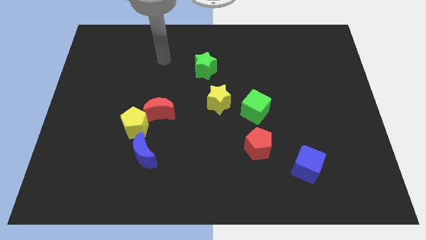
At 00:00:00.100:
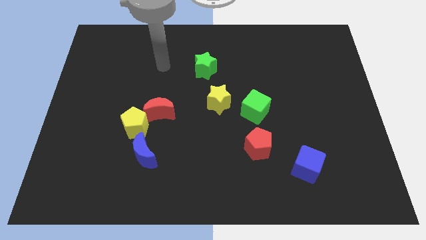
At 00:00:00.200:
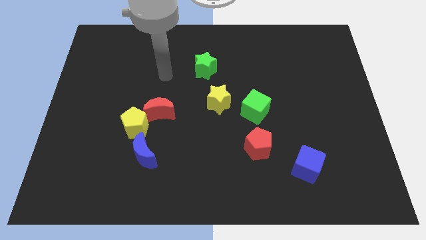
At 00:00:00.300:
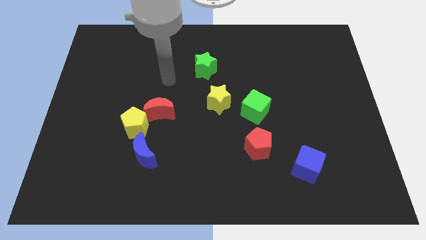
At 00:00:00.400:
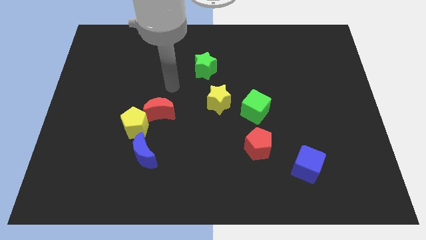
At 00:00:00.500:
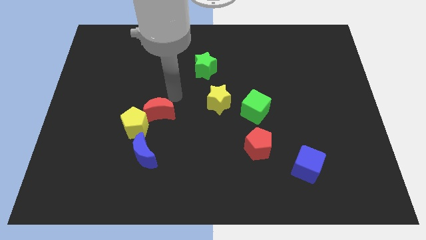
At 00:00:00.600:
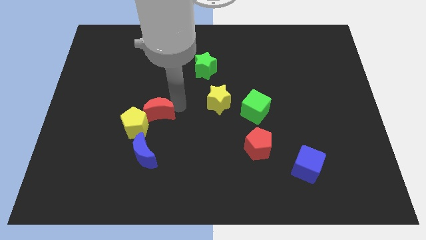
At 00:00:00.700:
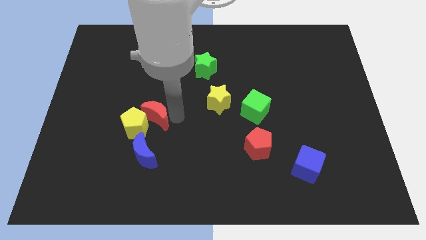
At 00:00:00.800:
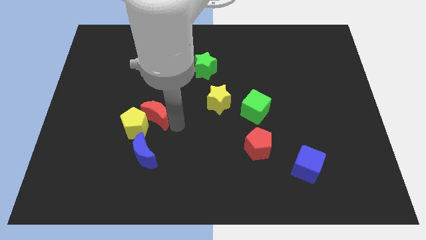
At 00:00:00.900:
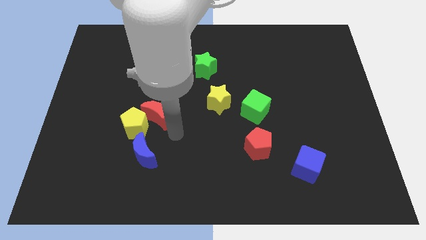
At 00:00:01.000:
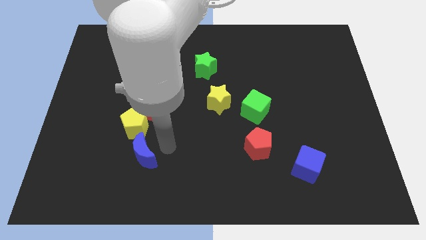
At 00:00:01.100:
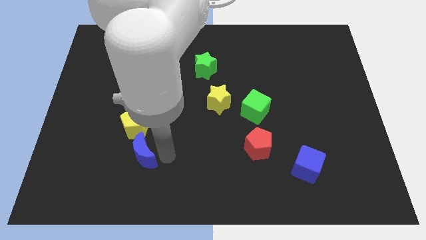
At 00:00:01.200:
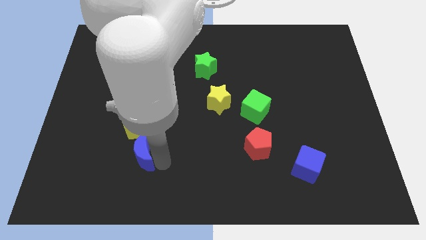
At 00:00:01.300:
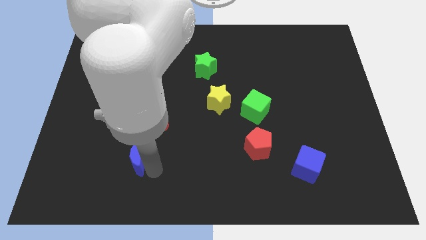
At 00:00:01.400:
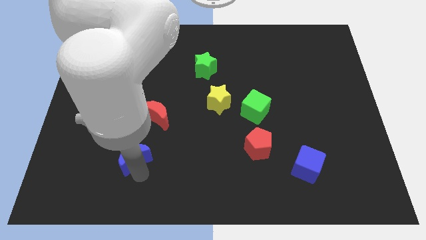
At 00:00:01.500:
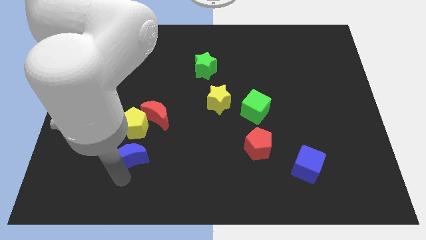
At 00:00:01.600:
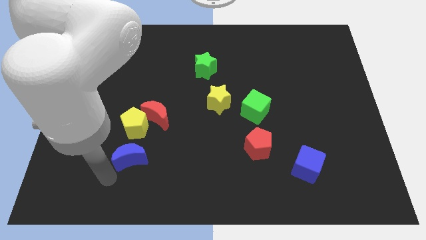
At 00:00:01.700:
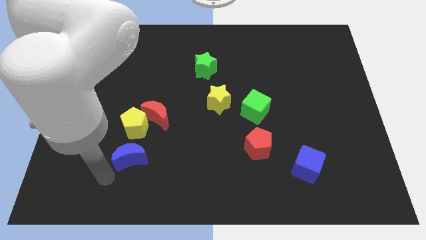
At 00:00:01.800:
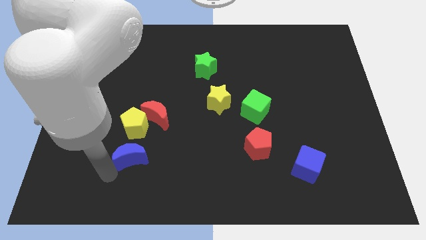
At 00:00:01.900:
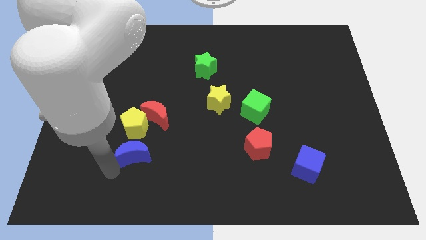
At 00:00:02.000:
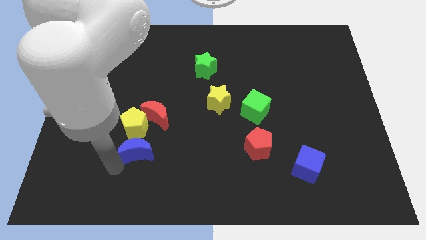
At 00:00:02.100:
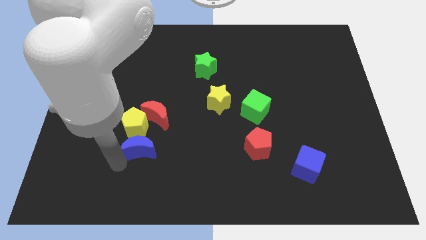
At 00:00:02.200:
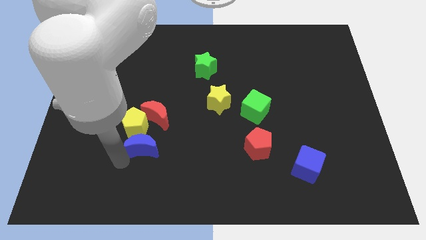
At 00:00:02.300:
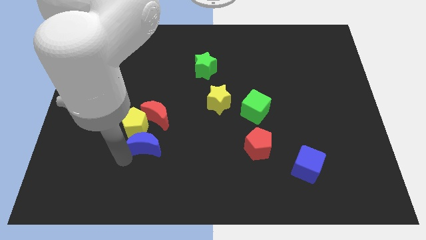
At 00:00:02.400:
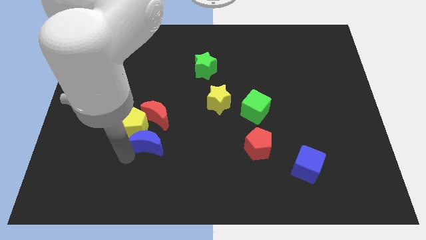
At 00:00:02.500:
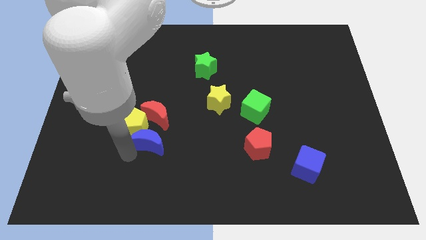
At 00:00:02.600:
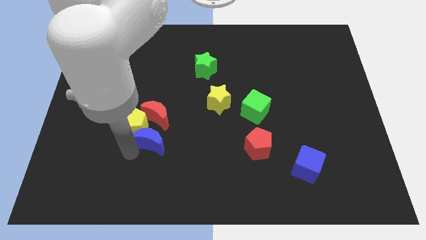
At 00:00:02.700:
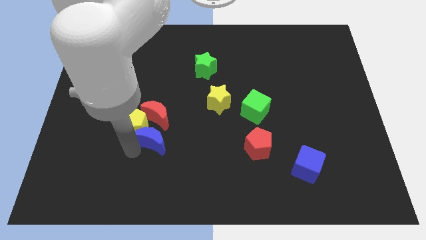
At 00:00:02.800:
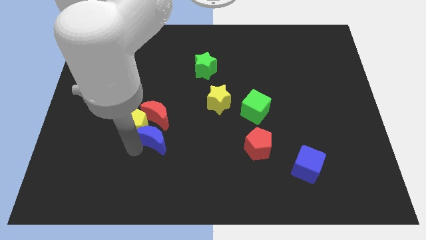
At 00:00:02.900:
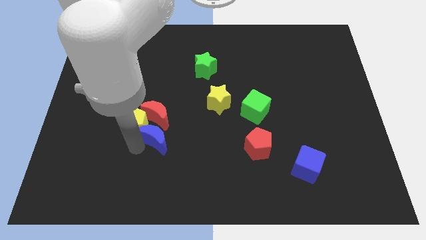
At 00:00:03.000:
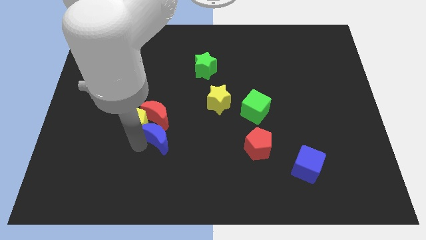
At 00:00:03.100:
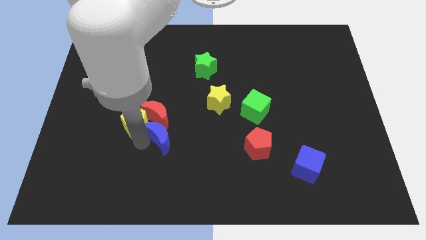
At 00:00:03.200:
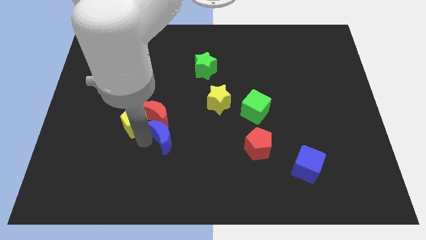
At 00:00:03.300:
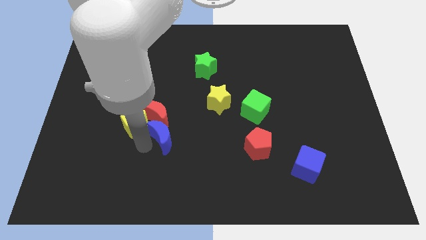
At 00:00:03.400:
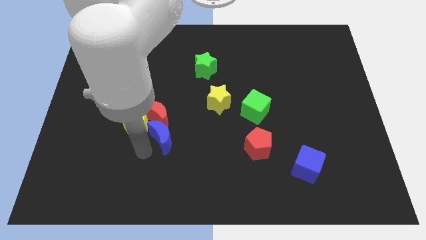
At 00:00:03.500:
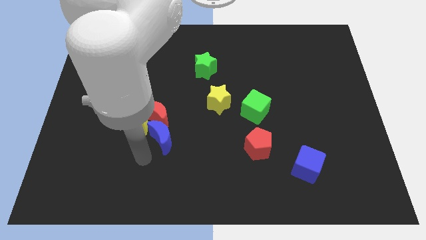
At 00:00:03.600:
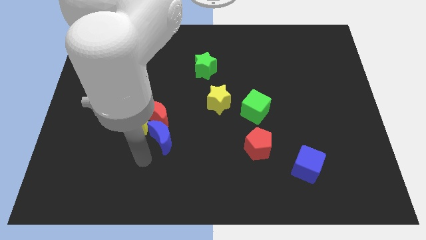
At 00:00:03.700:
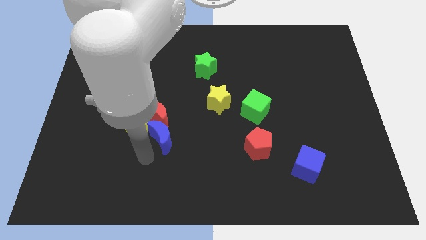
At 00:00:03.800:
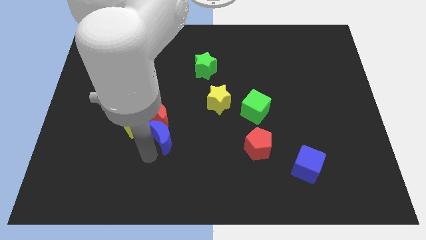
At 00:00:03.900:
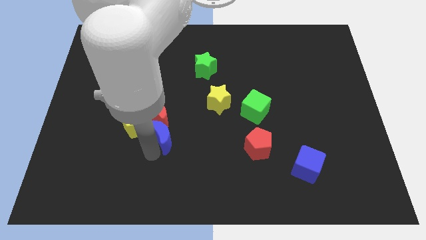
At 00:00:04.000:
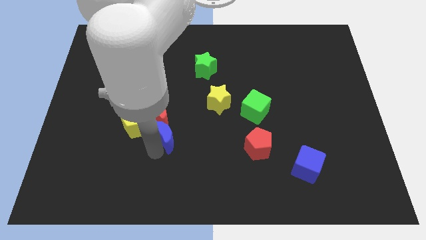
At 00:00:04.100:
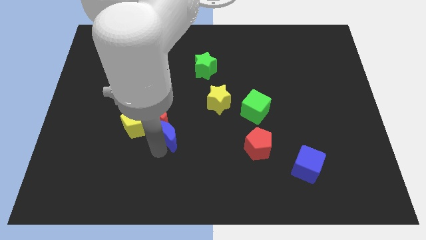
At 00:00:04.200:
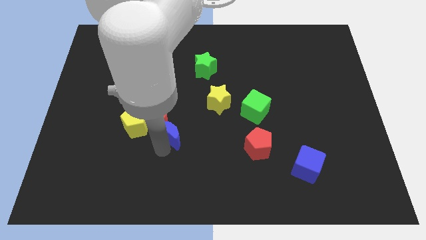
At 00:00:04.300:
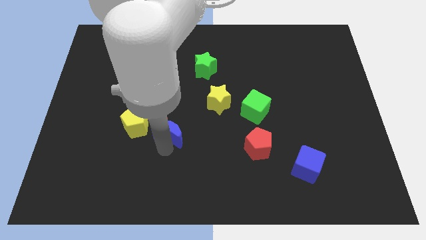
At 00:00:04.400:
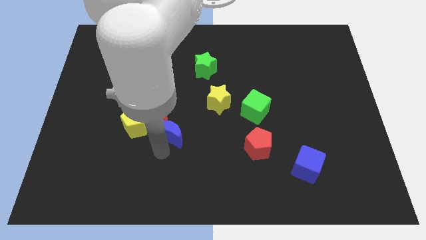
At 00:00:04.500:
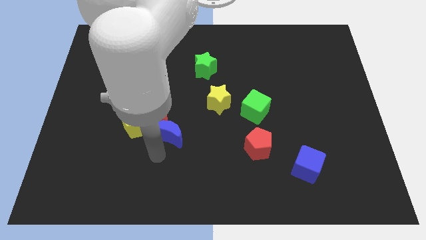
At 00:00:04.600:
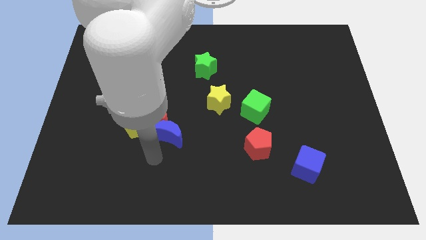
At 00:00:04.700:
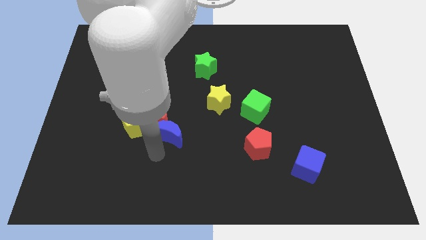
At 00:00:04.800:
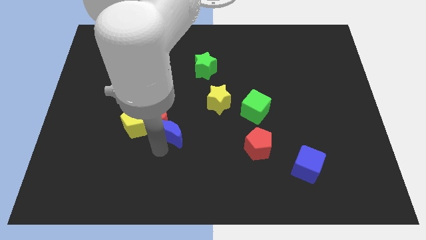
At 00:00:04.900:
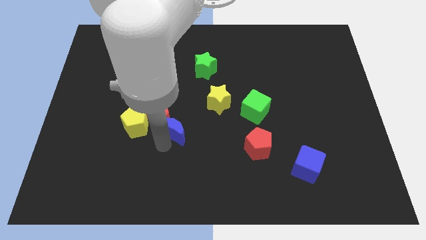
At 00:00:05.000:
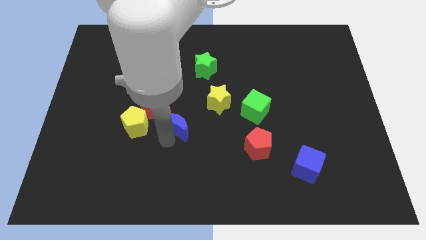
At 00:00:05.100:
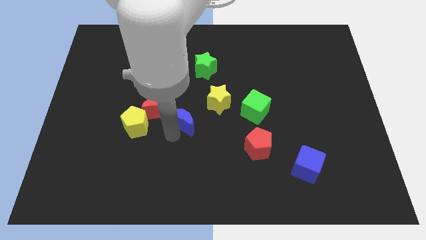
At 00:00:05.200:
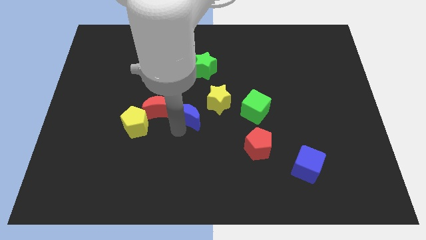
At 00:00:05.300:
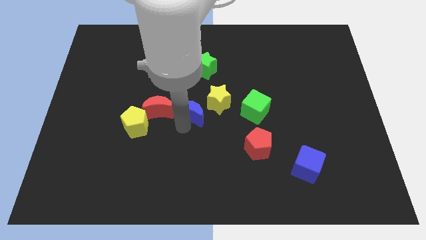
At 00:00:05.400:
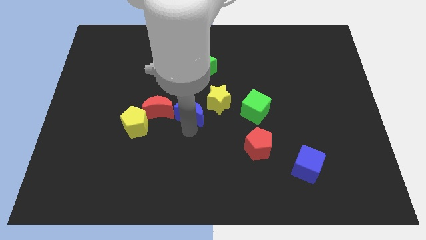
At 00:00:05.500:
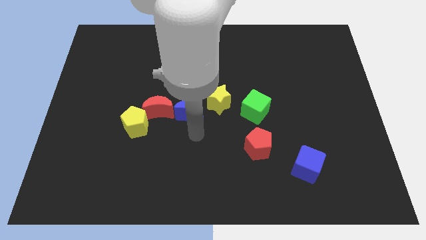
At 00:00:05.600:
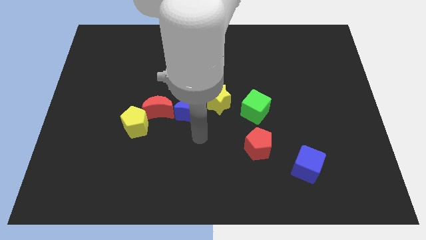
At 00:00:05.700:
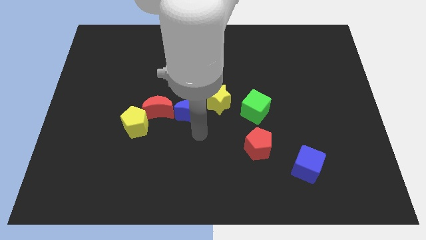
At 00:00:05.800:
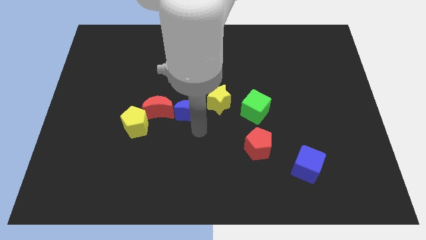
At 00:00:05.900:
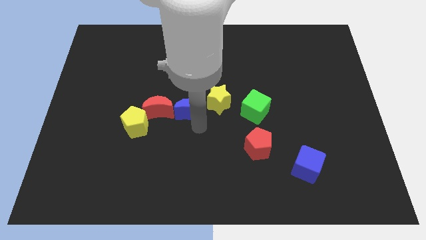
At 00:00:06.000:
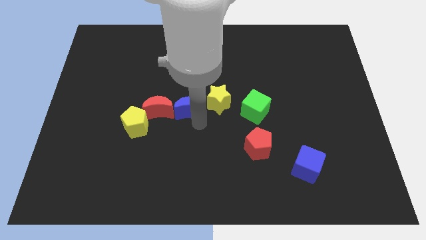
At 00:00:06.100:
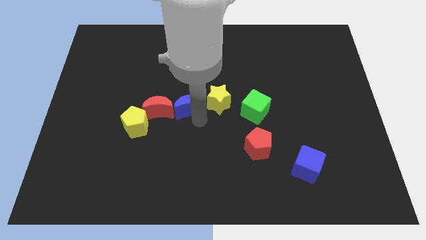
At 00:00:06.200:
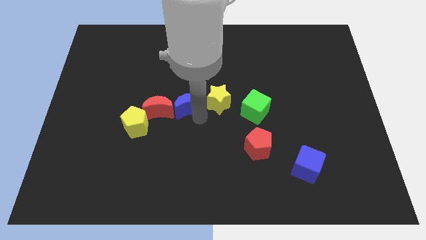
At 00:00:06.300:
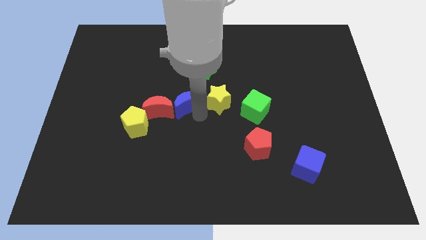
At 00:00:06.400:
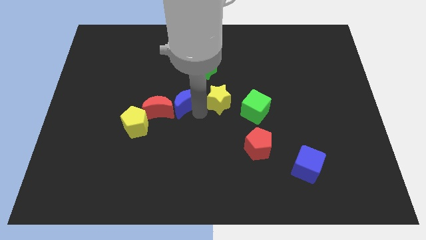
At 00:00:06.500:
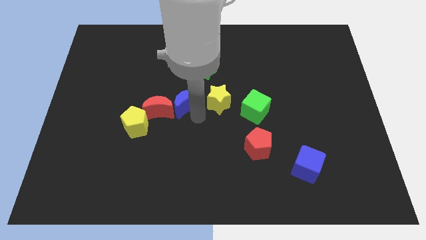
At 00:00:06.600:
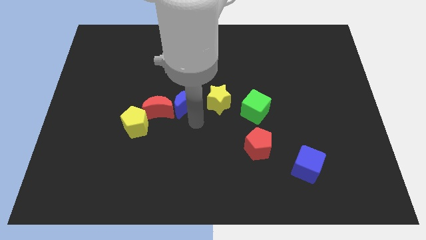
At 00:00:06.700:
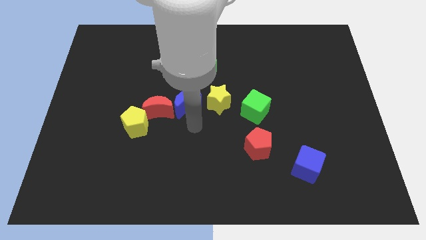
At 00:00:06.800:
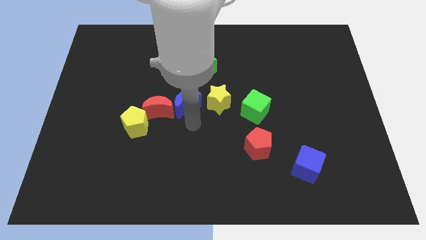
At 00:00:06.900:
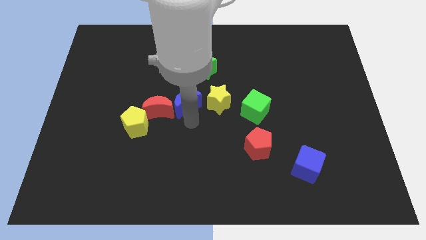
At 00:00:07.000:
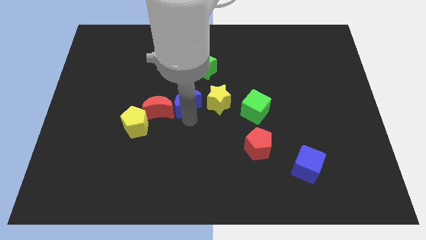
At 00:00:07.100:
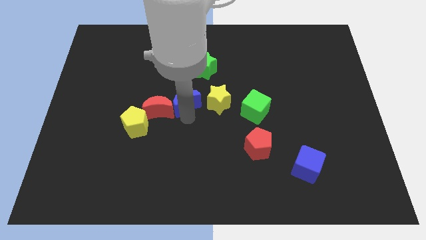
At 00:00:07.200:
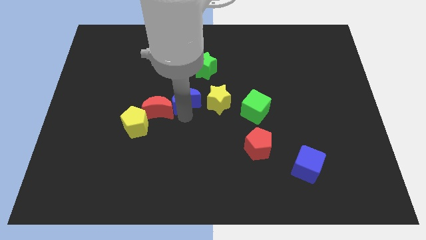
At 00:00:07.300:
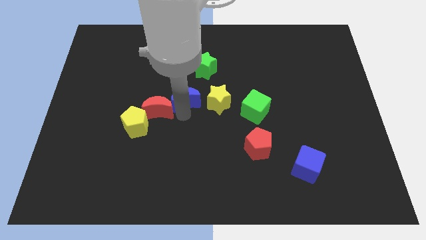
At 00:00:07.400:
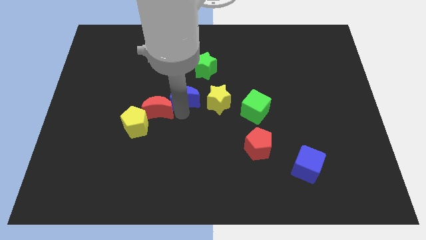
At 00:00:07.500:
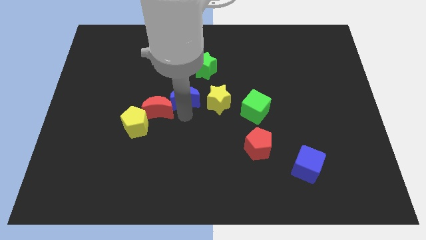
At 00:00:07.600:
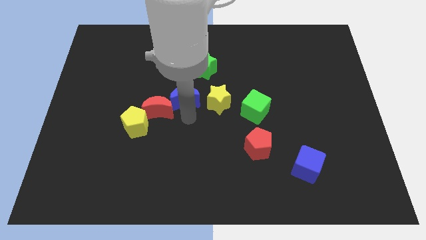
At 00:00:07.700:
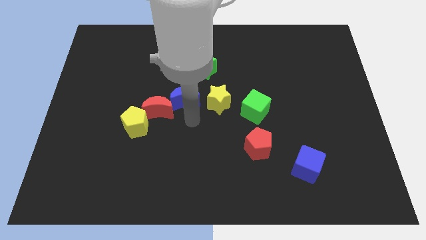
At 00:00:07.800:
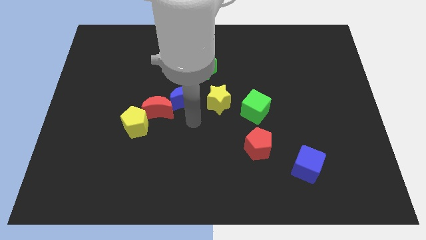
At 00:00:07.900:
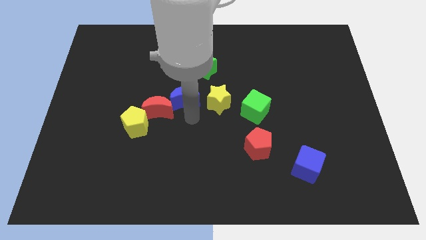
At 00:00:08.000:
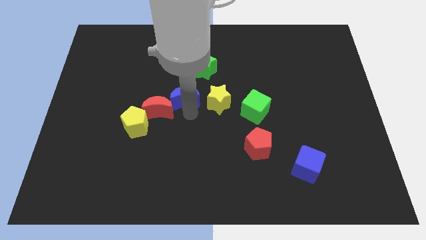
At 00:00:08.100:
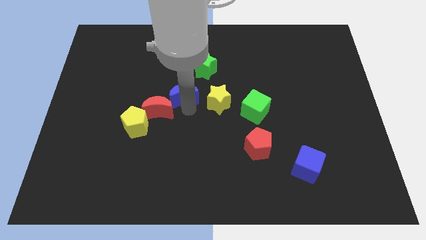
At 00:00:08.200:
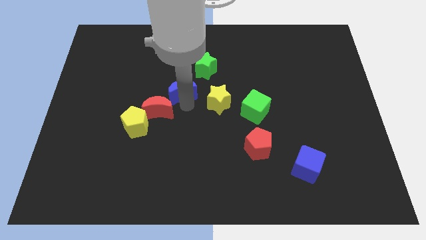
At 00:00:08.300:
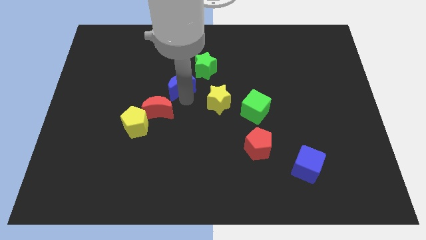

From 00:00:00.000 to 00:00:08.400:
put the blue moon to the top side of the red moon
